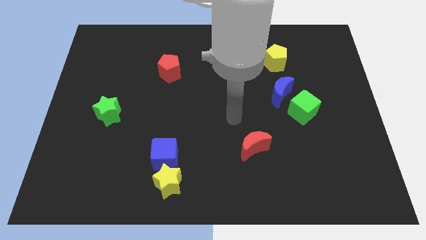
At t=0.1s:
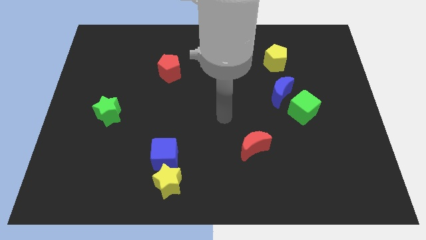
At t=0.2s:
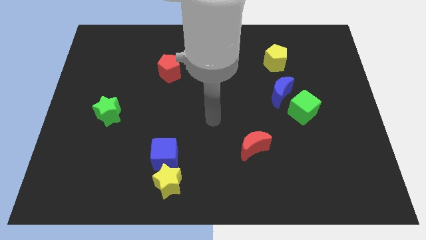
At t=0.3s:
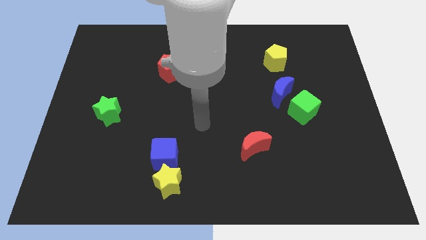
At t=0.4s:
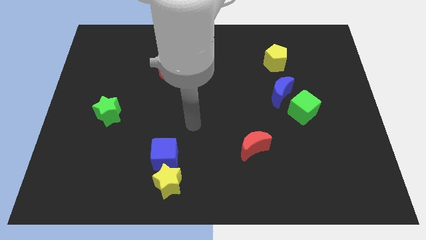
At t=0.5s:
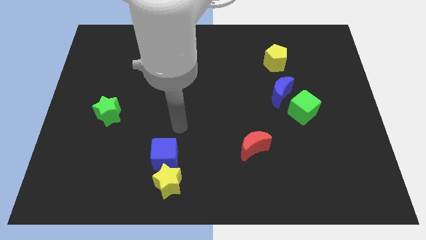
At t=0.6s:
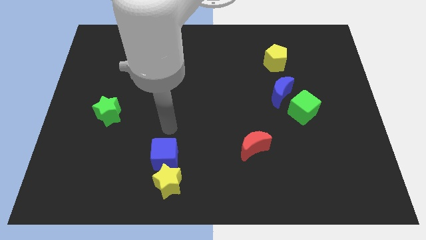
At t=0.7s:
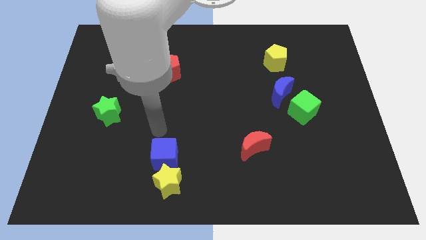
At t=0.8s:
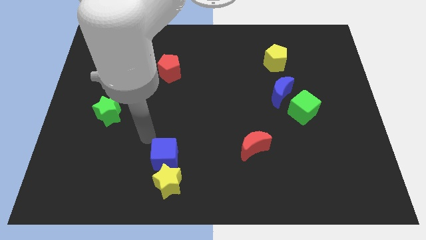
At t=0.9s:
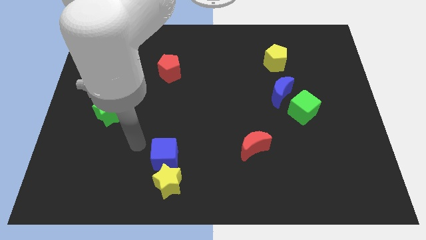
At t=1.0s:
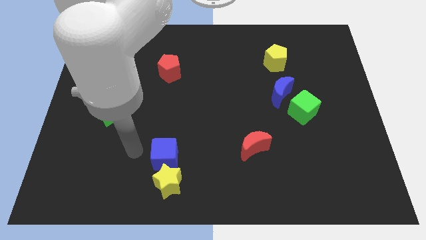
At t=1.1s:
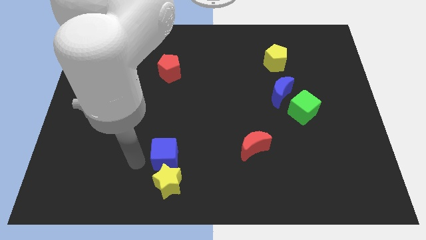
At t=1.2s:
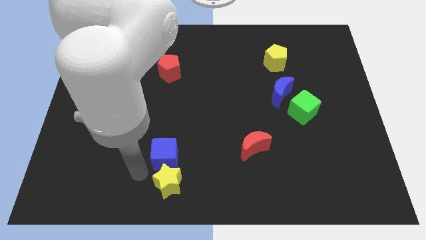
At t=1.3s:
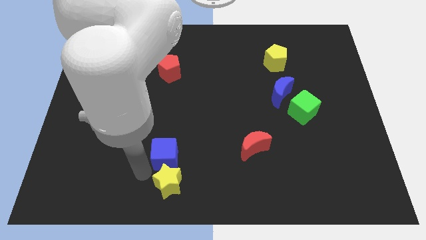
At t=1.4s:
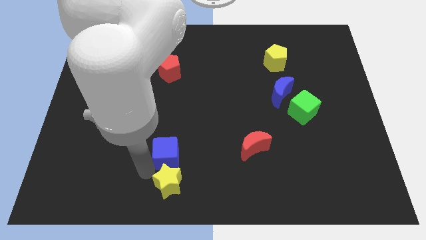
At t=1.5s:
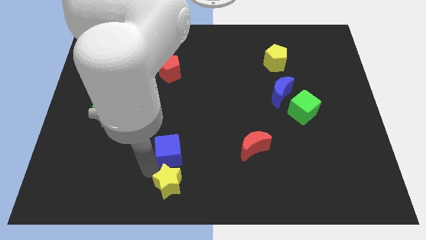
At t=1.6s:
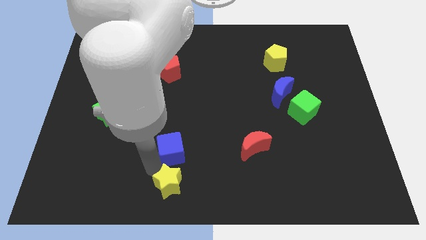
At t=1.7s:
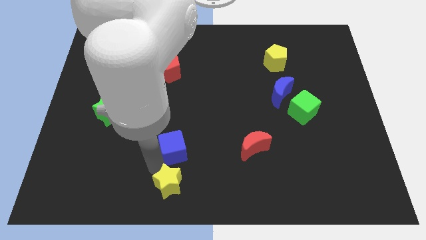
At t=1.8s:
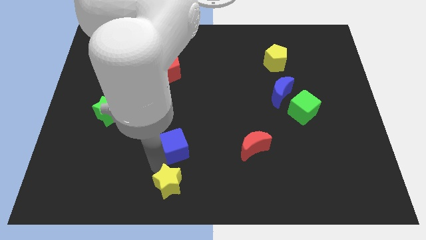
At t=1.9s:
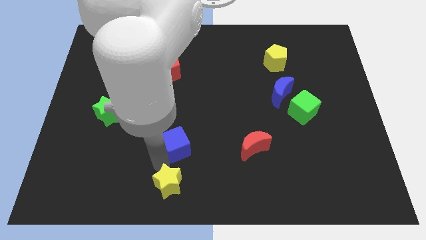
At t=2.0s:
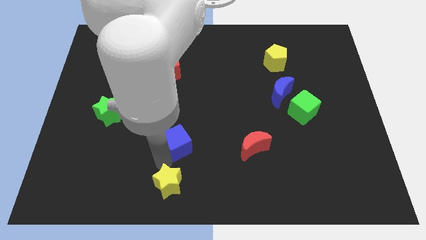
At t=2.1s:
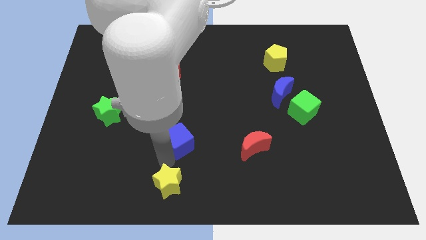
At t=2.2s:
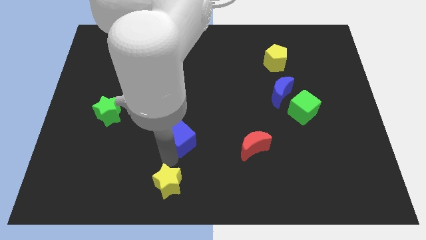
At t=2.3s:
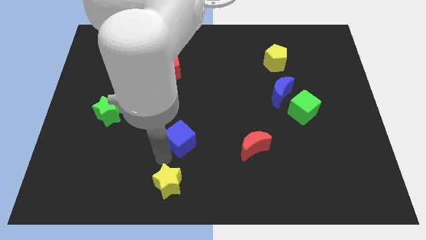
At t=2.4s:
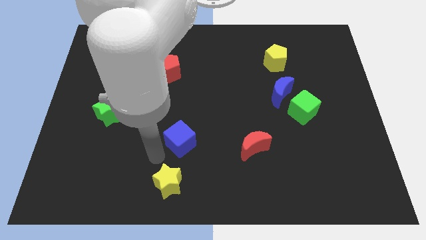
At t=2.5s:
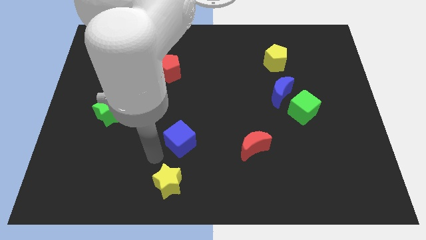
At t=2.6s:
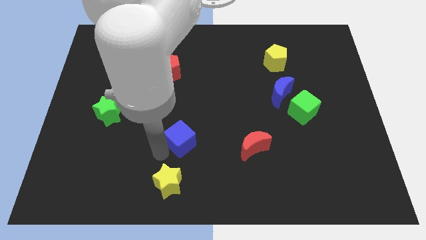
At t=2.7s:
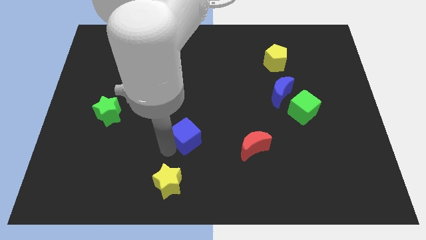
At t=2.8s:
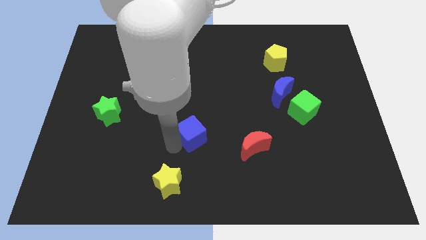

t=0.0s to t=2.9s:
slide the blue cube a bit upwards and to the right

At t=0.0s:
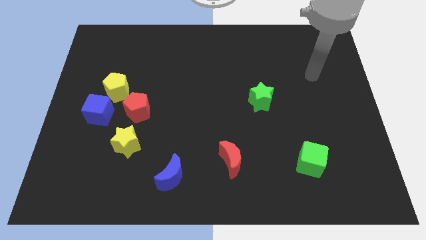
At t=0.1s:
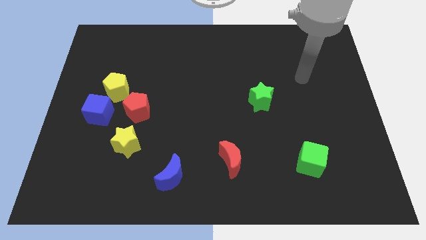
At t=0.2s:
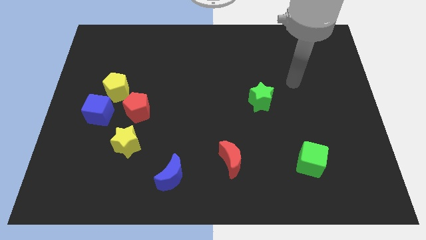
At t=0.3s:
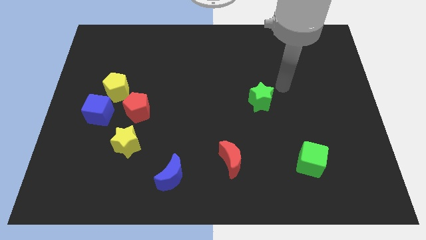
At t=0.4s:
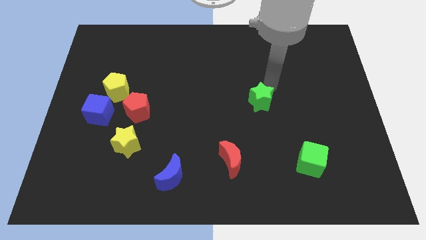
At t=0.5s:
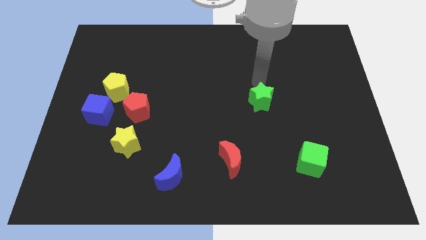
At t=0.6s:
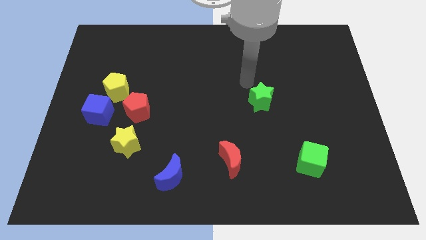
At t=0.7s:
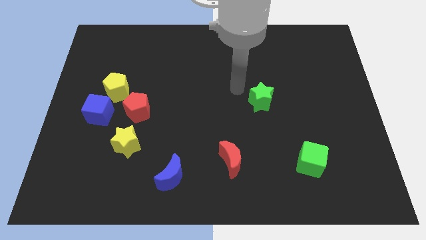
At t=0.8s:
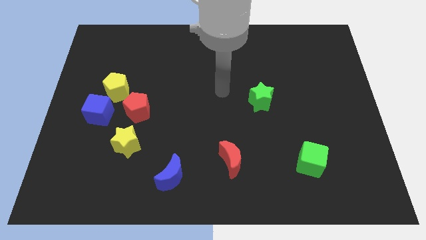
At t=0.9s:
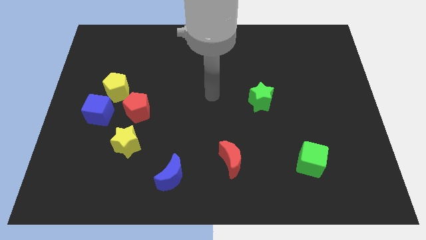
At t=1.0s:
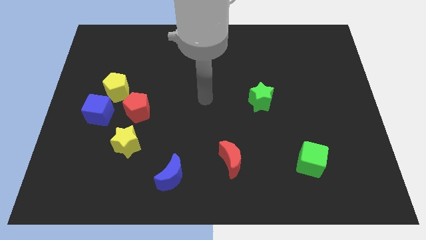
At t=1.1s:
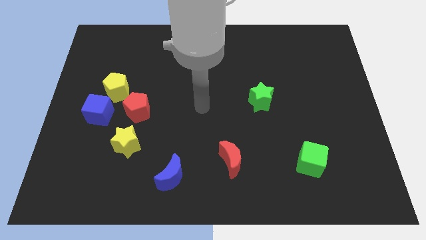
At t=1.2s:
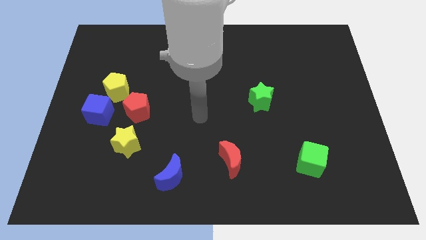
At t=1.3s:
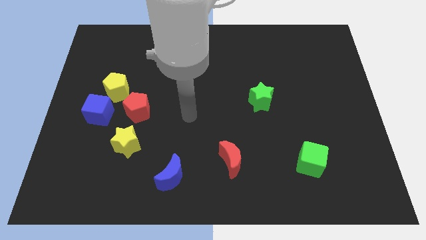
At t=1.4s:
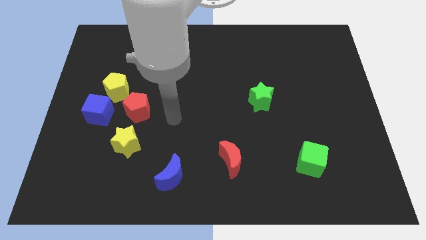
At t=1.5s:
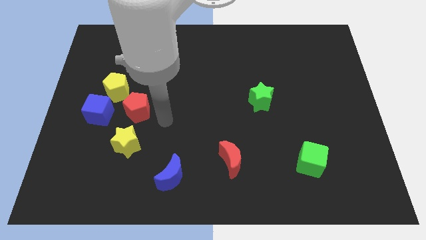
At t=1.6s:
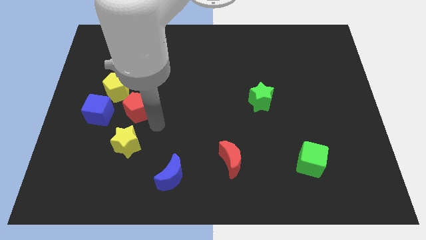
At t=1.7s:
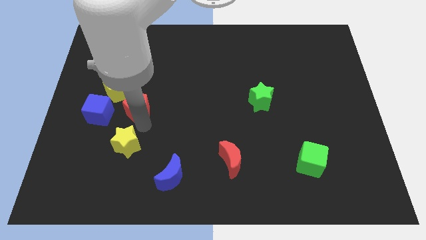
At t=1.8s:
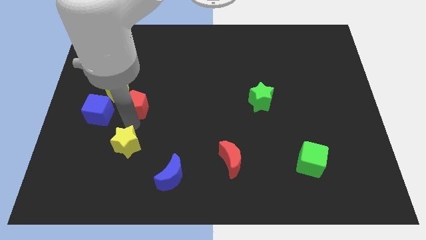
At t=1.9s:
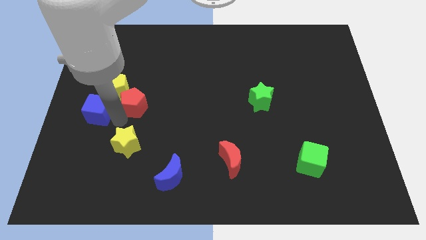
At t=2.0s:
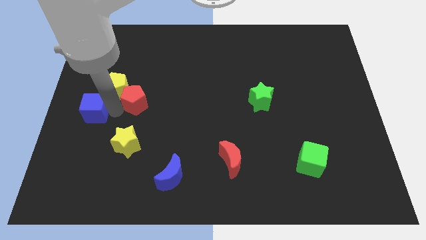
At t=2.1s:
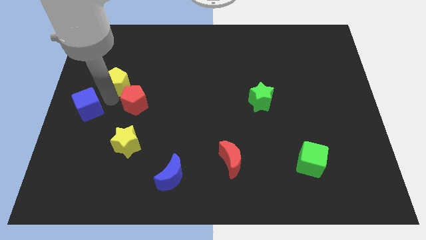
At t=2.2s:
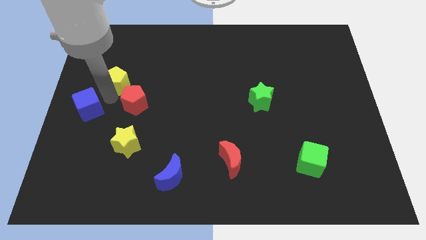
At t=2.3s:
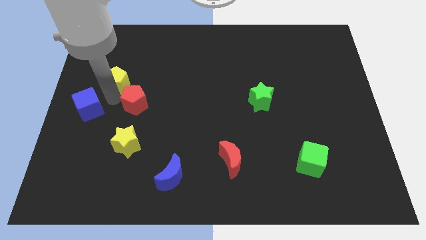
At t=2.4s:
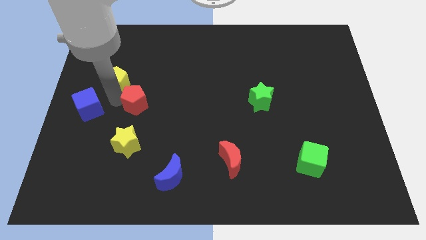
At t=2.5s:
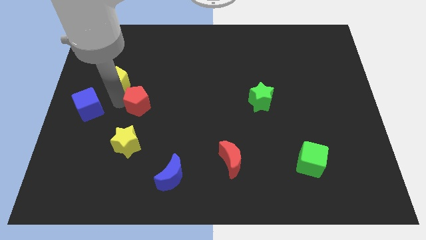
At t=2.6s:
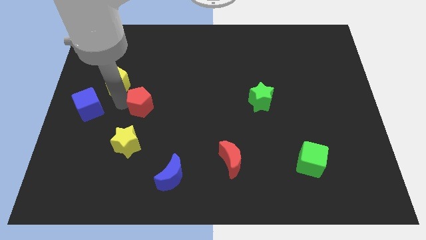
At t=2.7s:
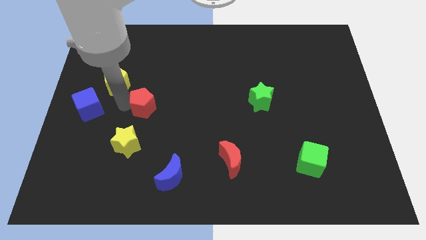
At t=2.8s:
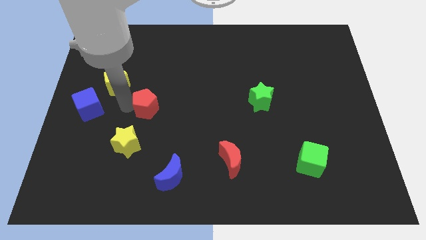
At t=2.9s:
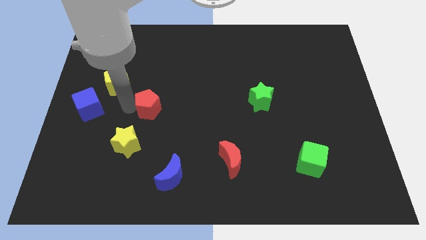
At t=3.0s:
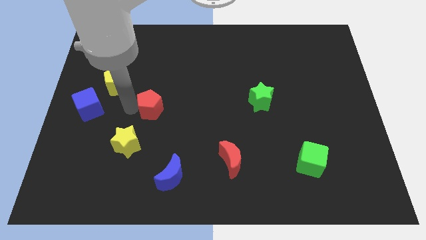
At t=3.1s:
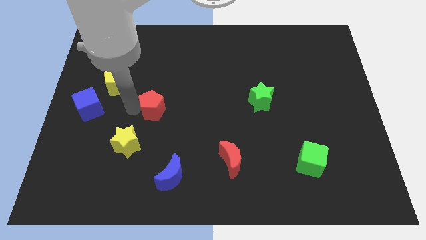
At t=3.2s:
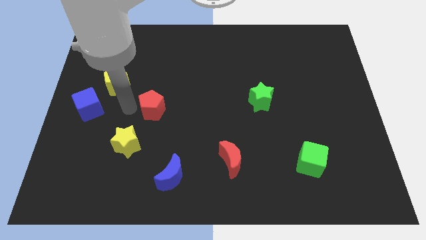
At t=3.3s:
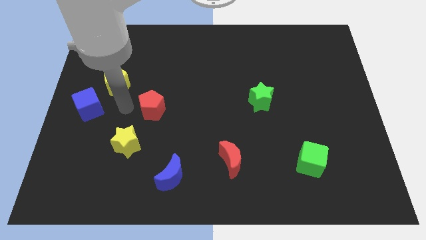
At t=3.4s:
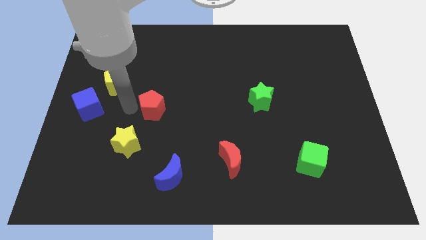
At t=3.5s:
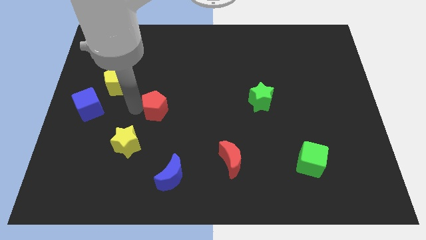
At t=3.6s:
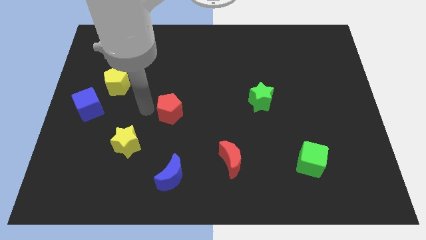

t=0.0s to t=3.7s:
move the red pentagon slightly to the right

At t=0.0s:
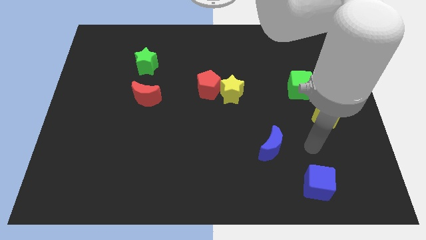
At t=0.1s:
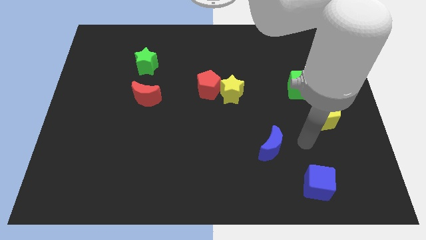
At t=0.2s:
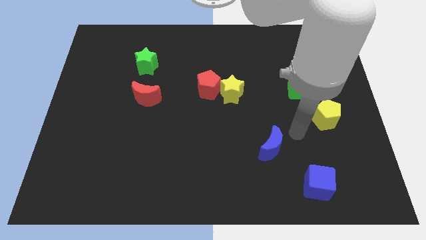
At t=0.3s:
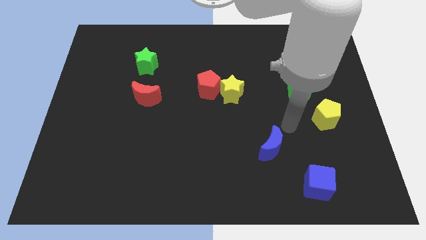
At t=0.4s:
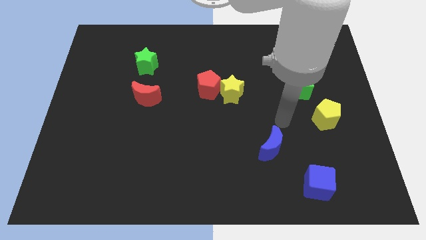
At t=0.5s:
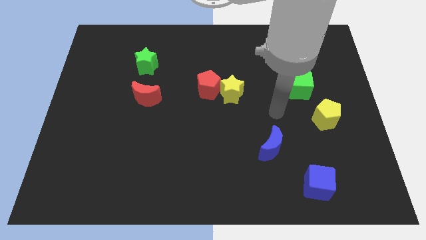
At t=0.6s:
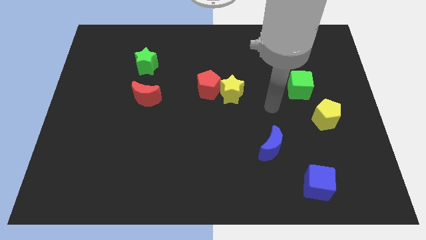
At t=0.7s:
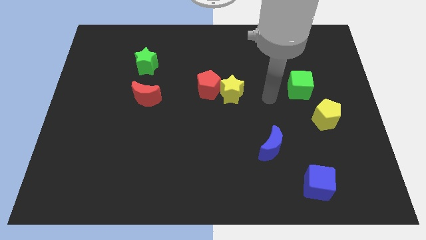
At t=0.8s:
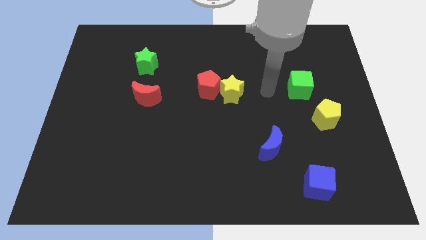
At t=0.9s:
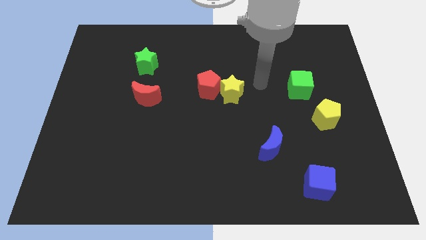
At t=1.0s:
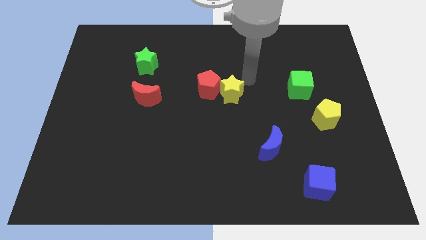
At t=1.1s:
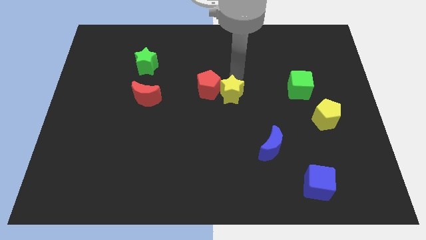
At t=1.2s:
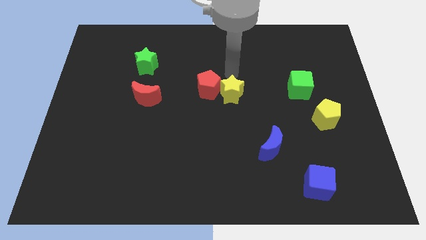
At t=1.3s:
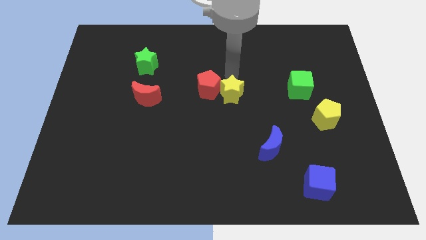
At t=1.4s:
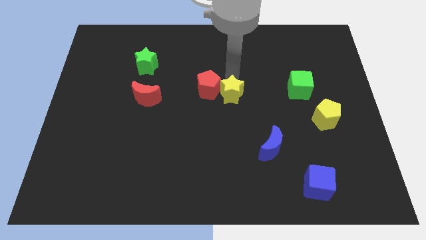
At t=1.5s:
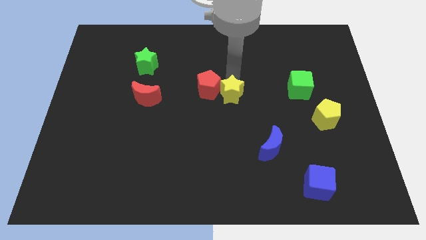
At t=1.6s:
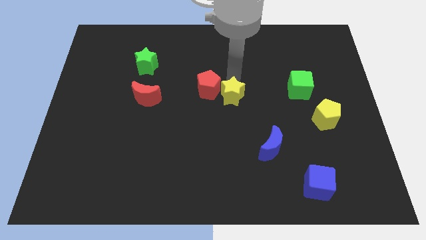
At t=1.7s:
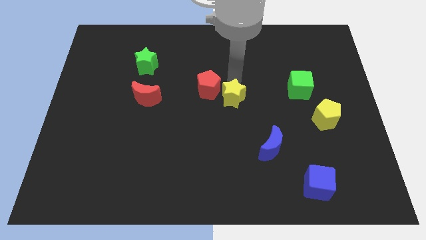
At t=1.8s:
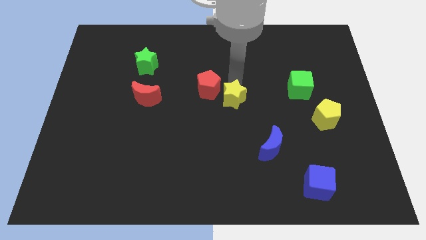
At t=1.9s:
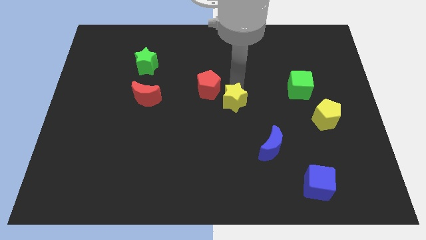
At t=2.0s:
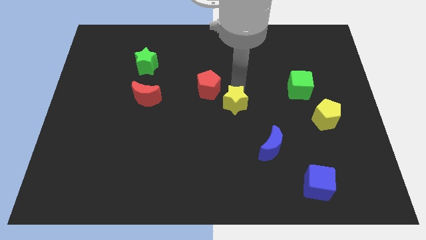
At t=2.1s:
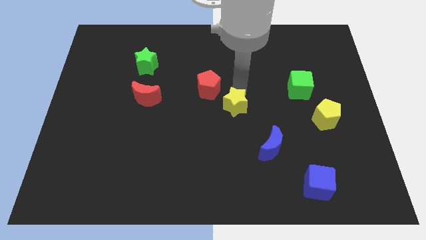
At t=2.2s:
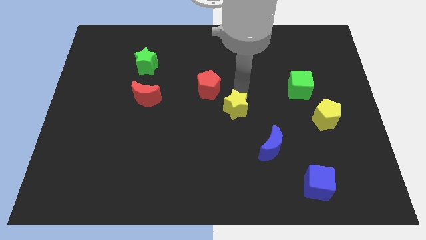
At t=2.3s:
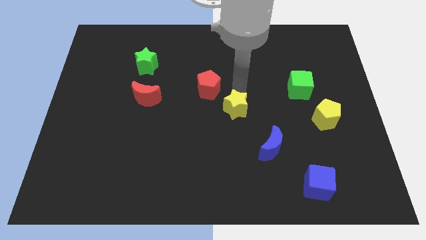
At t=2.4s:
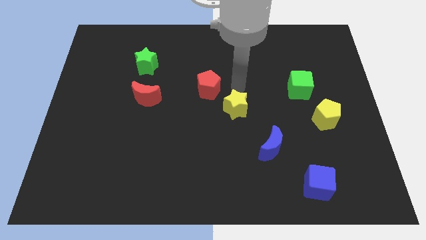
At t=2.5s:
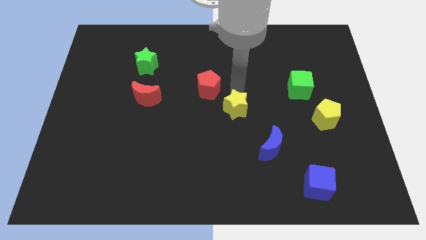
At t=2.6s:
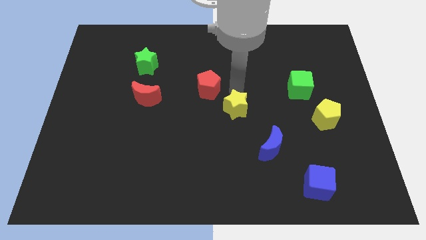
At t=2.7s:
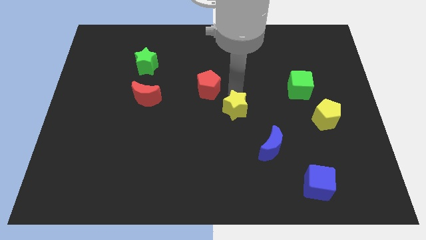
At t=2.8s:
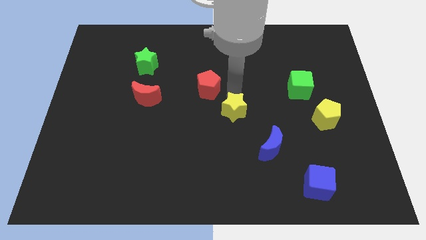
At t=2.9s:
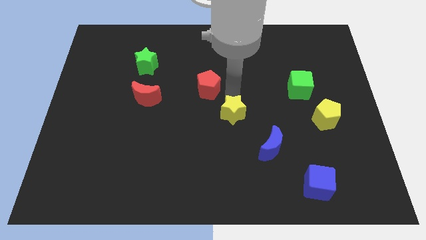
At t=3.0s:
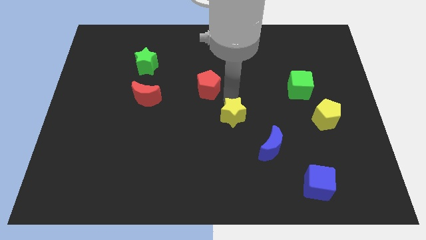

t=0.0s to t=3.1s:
move the yellow star a little downwards
